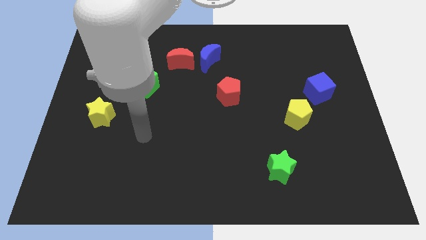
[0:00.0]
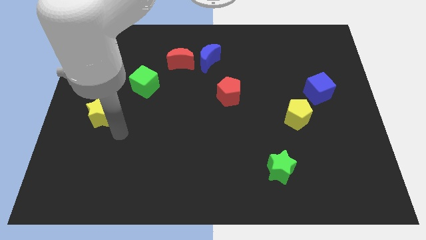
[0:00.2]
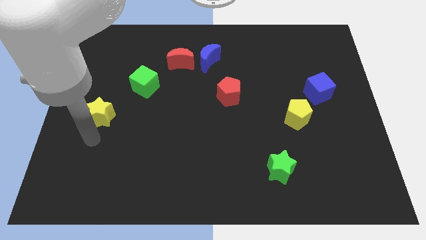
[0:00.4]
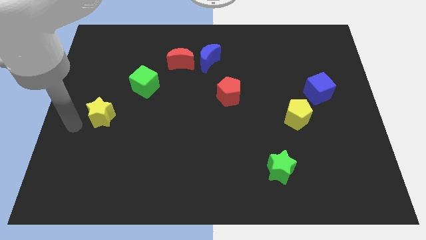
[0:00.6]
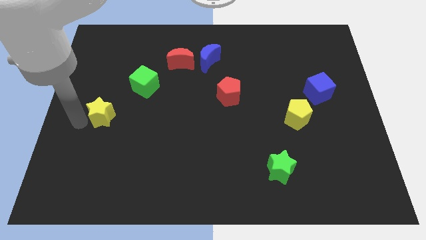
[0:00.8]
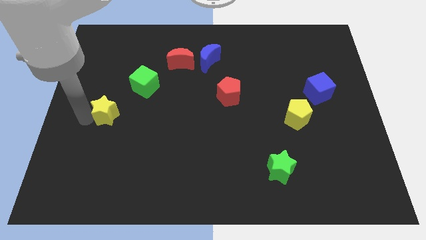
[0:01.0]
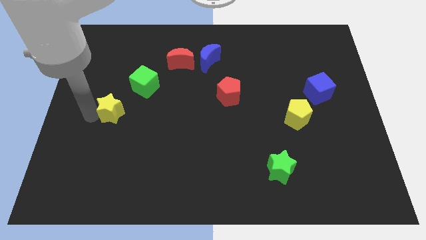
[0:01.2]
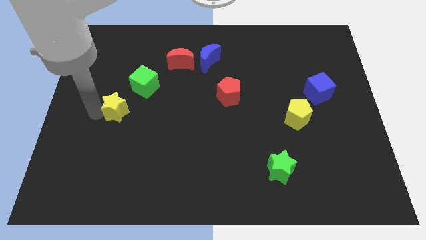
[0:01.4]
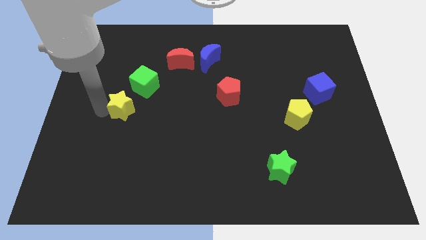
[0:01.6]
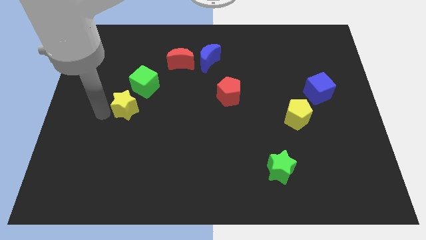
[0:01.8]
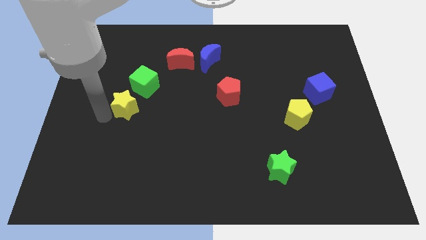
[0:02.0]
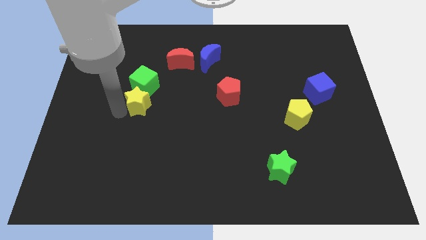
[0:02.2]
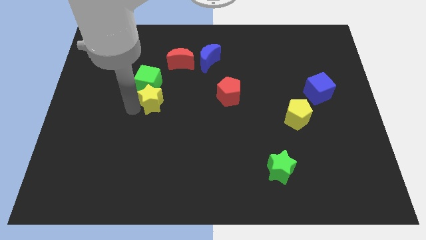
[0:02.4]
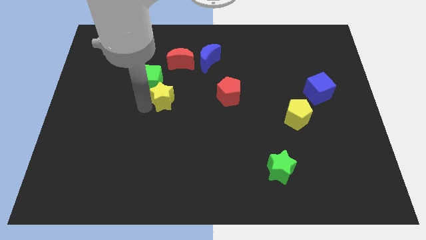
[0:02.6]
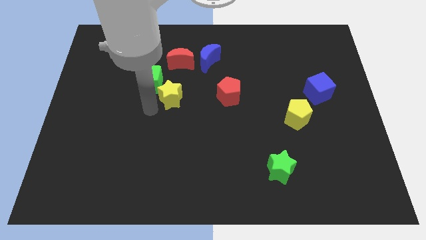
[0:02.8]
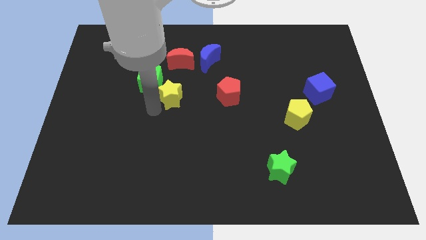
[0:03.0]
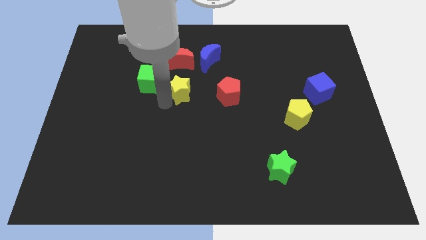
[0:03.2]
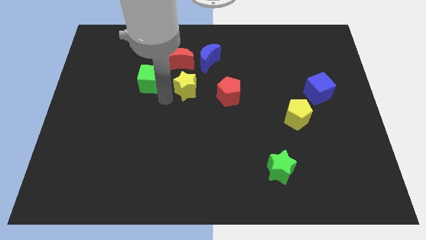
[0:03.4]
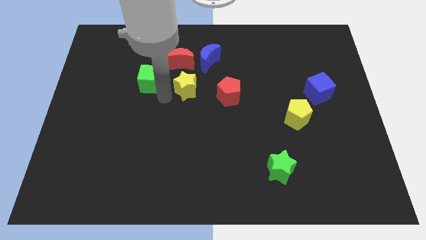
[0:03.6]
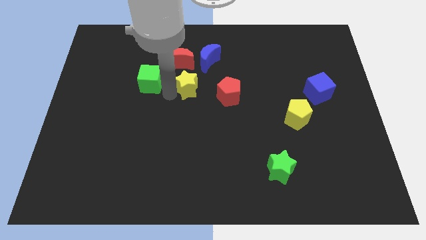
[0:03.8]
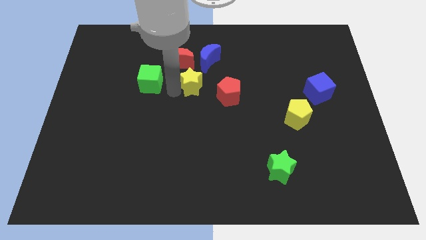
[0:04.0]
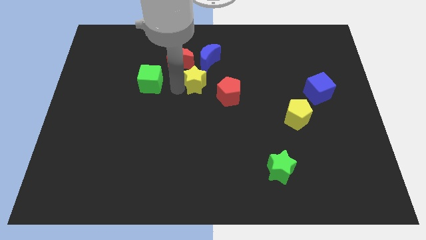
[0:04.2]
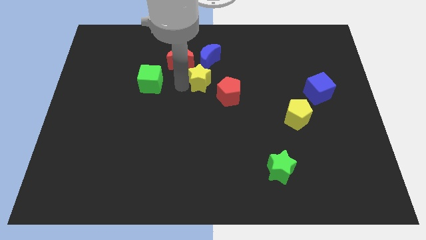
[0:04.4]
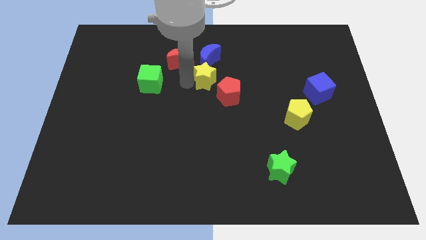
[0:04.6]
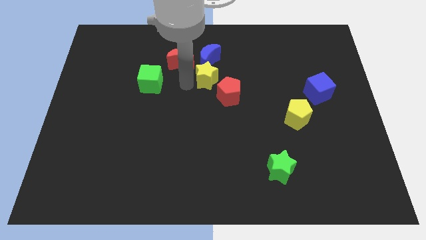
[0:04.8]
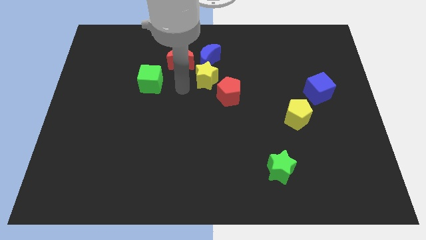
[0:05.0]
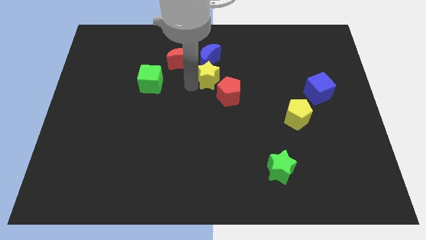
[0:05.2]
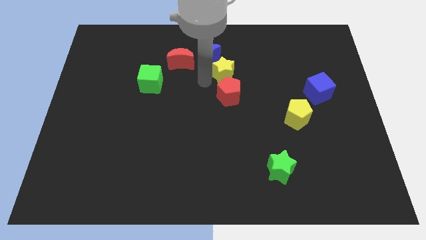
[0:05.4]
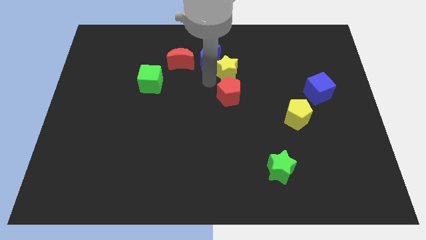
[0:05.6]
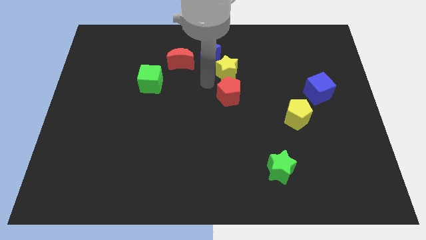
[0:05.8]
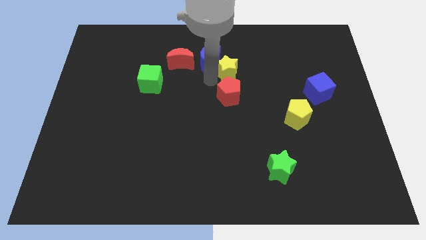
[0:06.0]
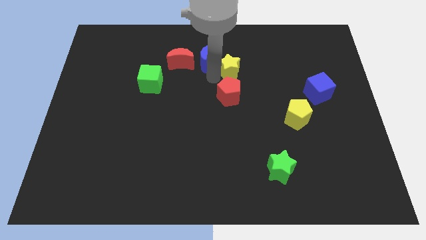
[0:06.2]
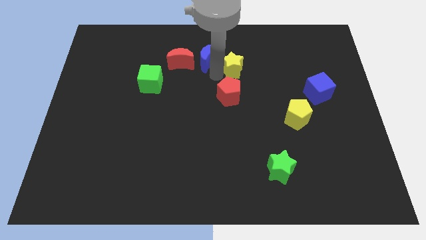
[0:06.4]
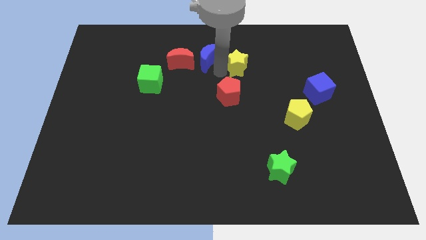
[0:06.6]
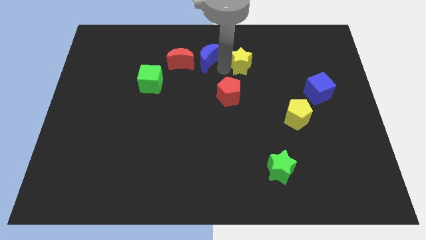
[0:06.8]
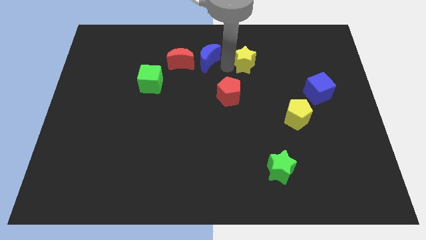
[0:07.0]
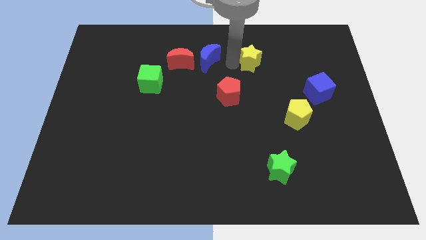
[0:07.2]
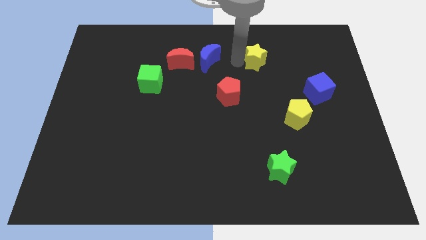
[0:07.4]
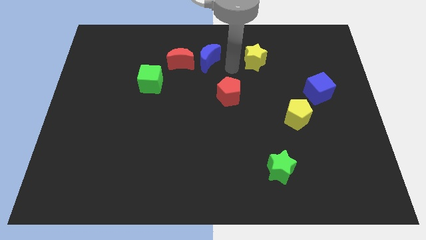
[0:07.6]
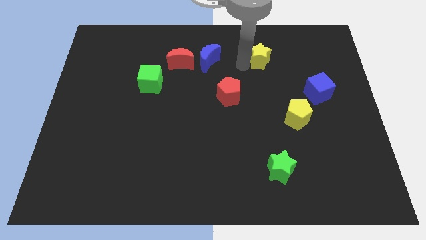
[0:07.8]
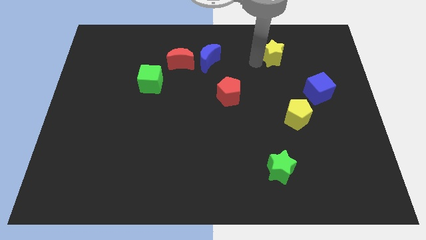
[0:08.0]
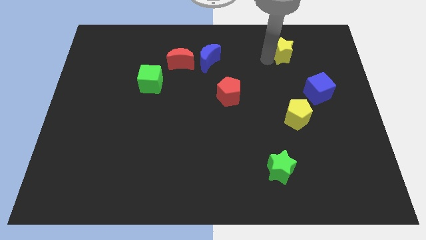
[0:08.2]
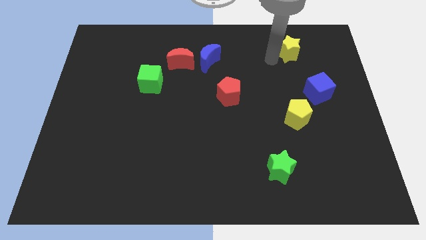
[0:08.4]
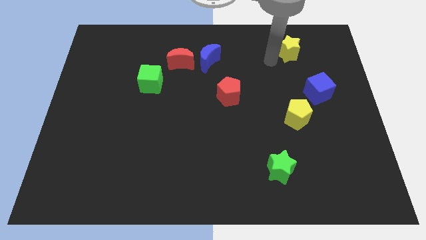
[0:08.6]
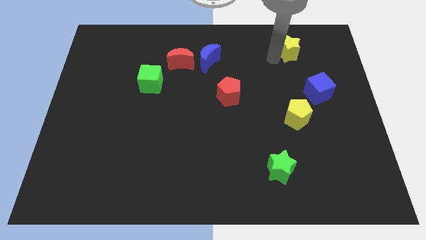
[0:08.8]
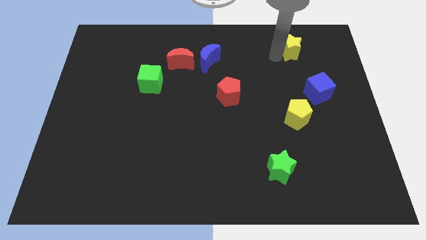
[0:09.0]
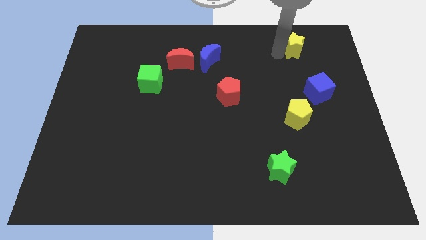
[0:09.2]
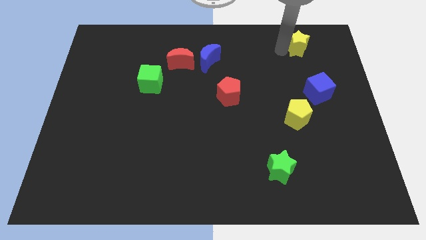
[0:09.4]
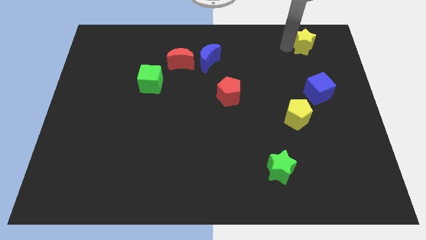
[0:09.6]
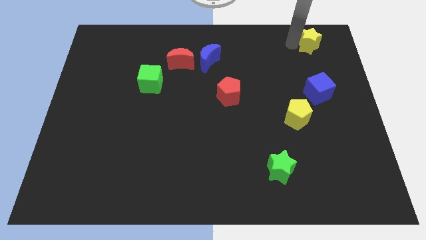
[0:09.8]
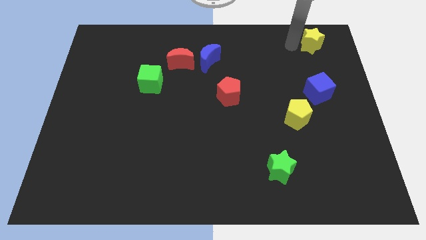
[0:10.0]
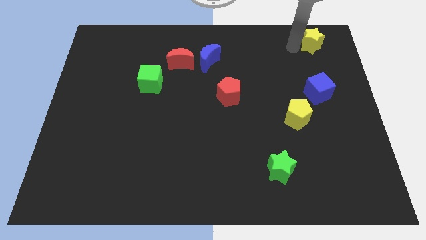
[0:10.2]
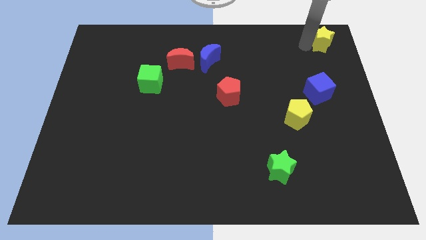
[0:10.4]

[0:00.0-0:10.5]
push the yellow star to the upper right corner

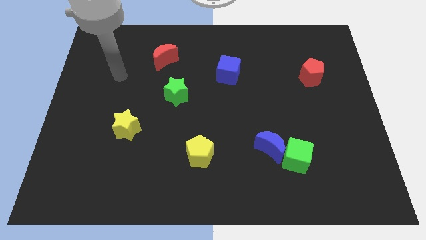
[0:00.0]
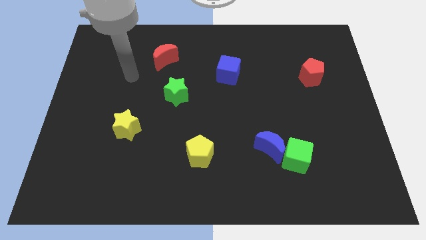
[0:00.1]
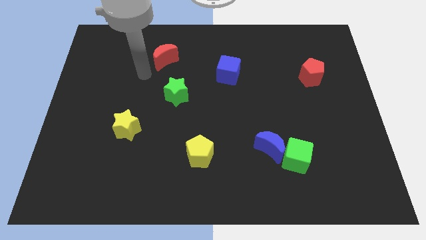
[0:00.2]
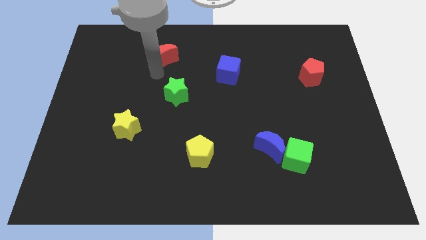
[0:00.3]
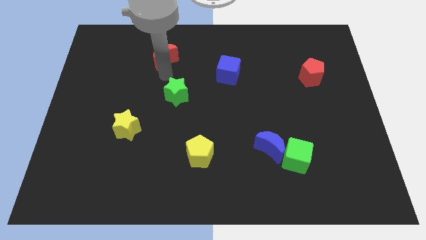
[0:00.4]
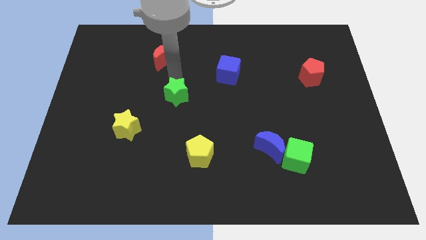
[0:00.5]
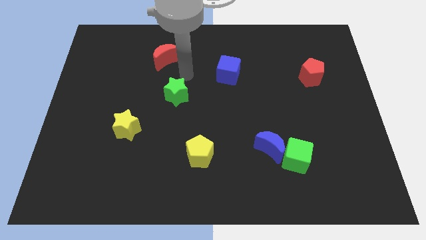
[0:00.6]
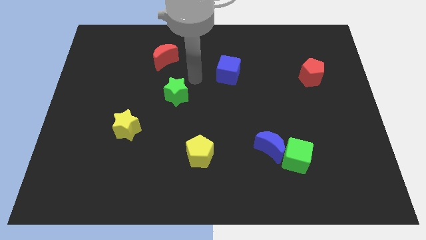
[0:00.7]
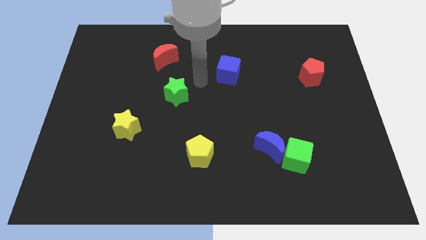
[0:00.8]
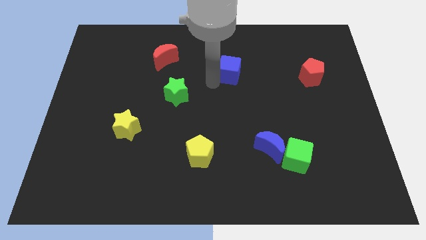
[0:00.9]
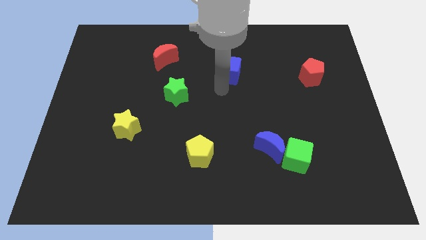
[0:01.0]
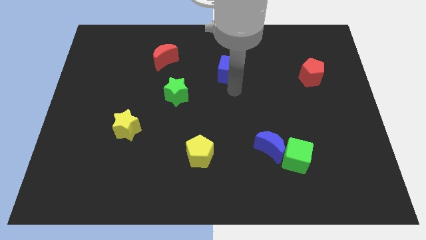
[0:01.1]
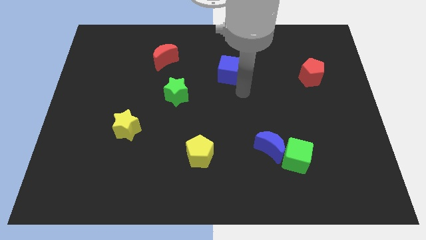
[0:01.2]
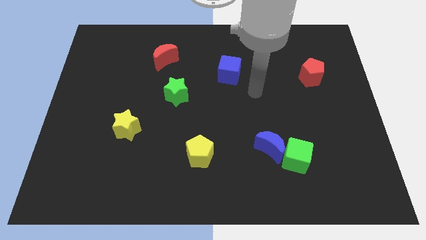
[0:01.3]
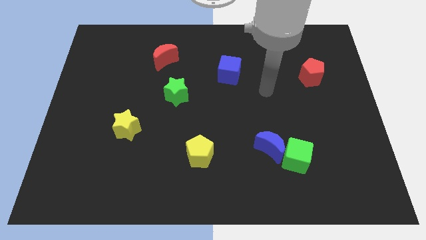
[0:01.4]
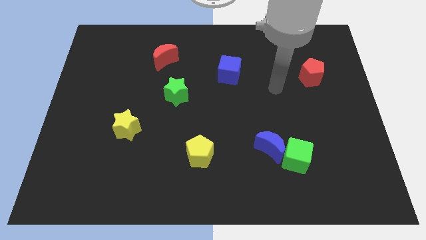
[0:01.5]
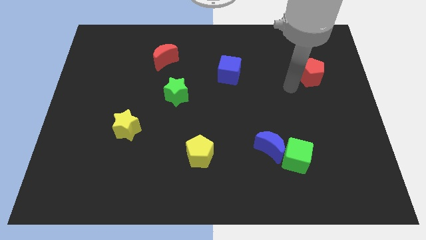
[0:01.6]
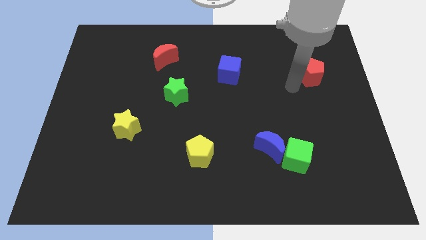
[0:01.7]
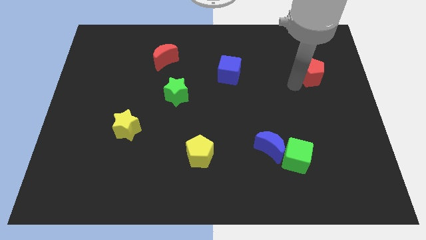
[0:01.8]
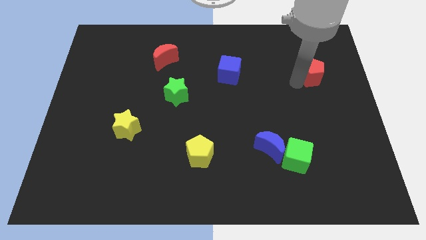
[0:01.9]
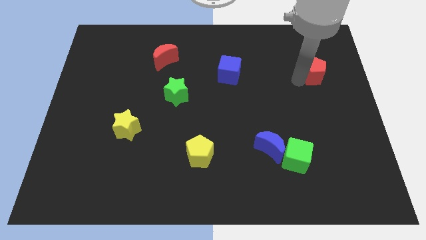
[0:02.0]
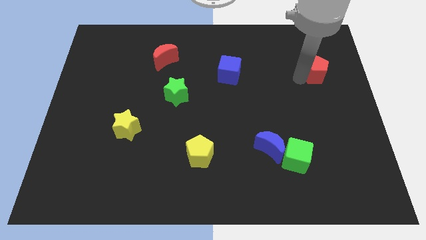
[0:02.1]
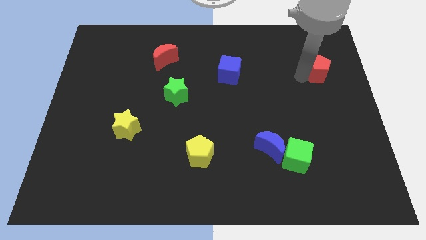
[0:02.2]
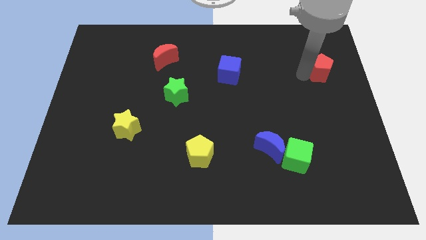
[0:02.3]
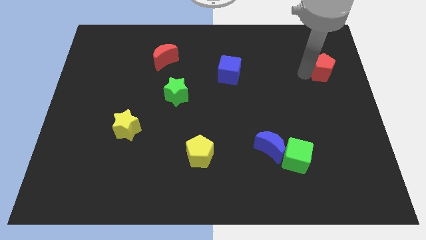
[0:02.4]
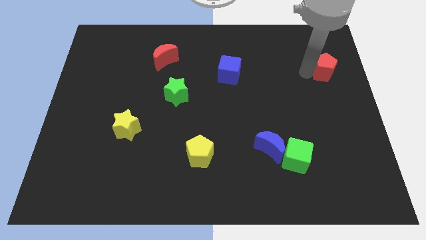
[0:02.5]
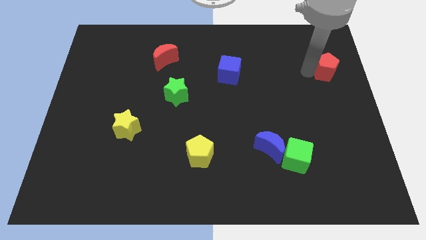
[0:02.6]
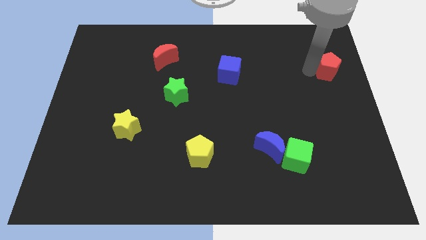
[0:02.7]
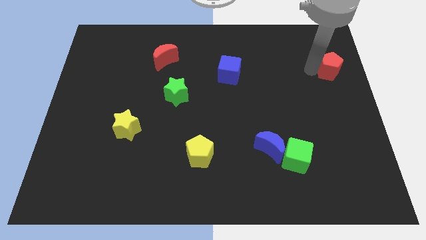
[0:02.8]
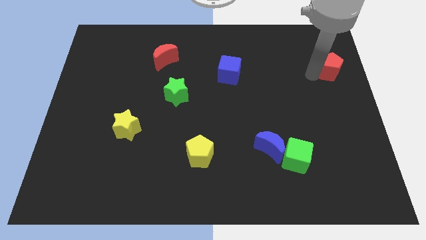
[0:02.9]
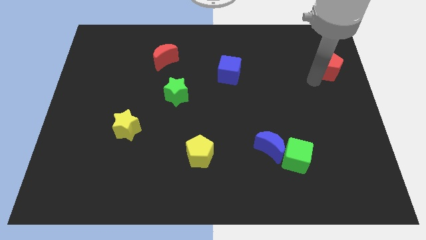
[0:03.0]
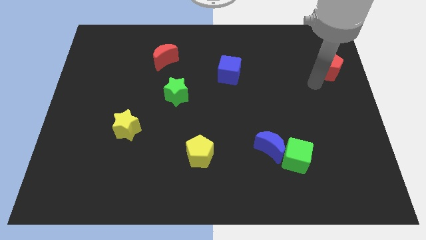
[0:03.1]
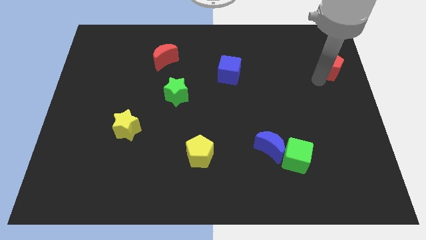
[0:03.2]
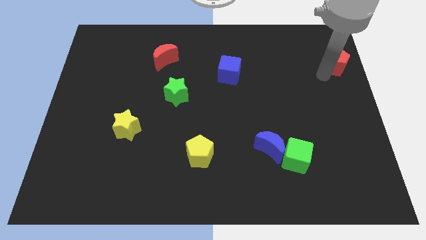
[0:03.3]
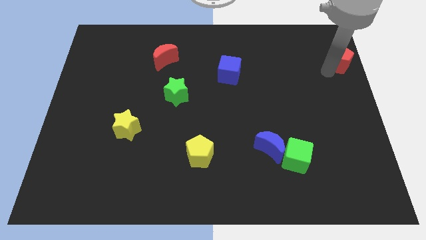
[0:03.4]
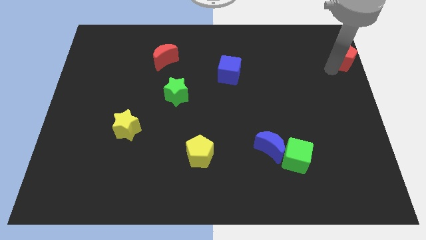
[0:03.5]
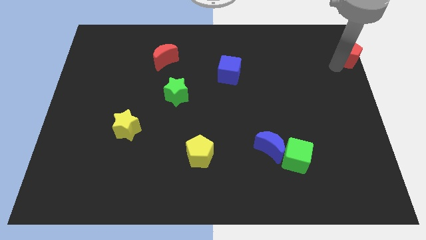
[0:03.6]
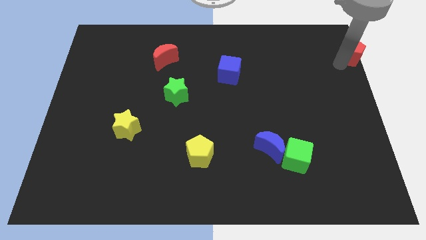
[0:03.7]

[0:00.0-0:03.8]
put the red pentagon to the top right of the board
